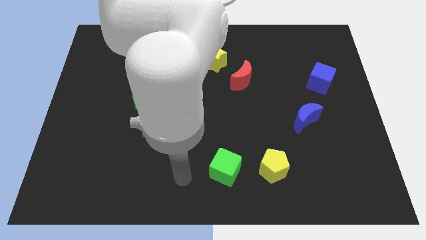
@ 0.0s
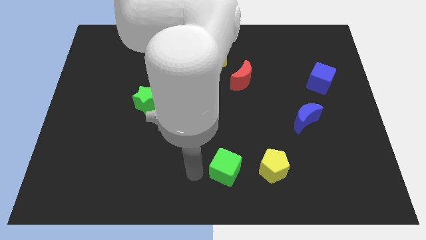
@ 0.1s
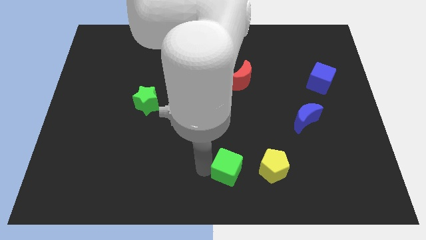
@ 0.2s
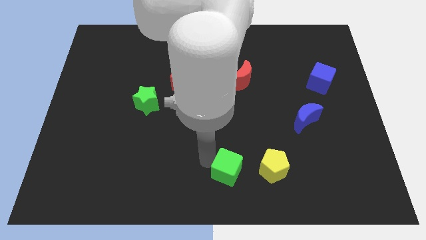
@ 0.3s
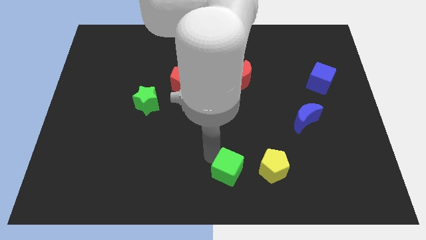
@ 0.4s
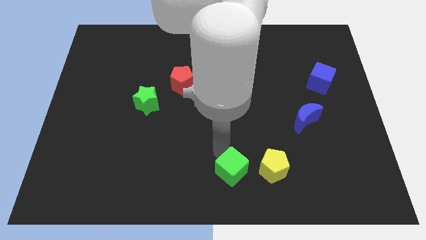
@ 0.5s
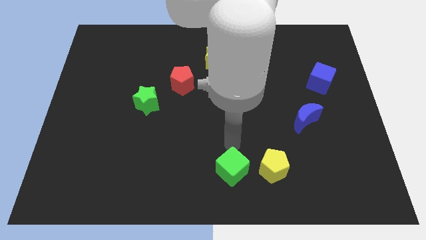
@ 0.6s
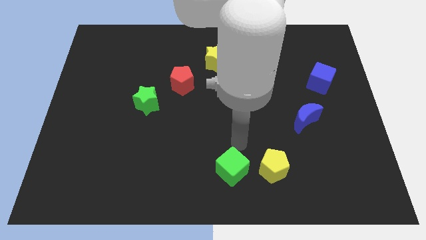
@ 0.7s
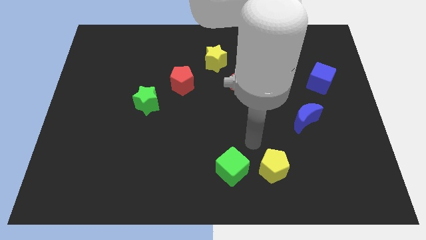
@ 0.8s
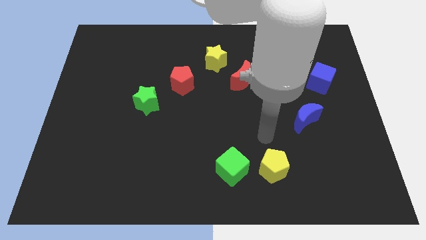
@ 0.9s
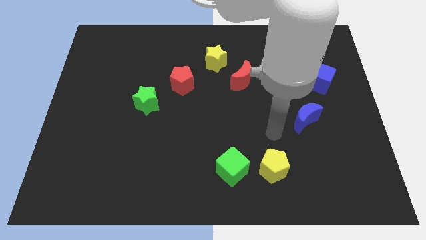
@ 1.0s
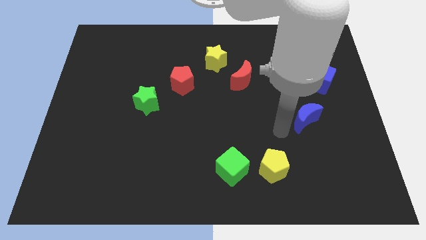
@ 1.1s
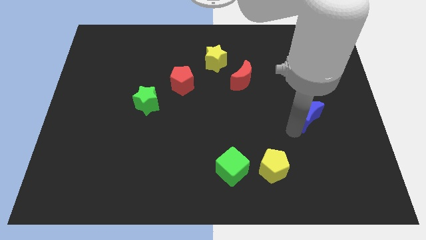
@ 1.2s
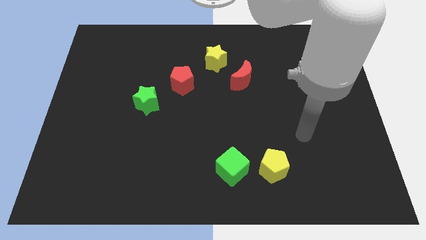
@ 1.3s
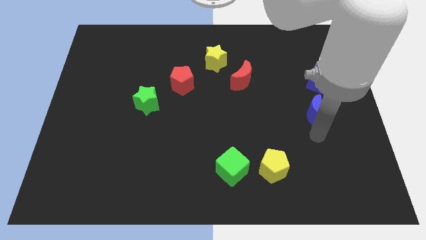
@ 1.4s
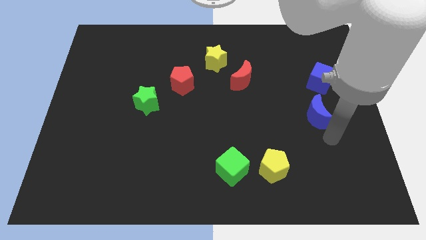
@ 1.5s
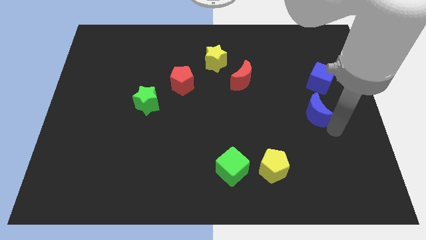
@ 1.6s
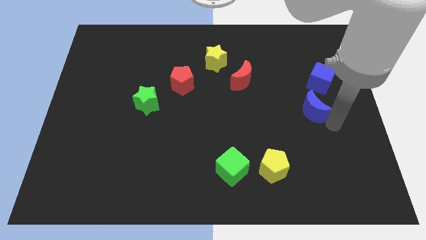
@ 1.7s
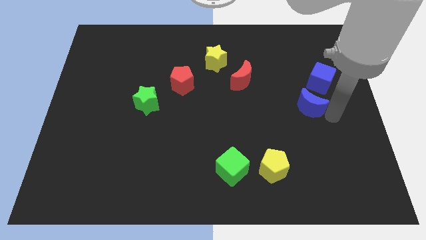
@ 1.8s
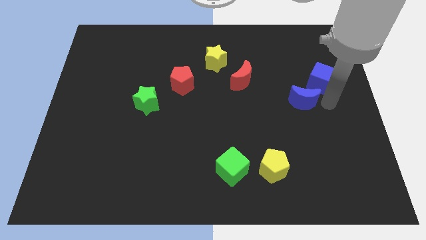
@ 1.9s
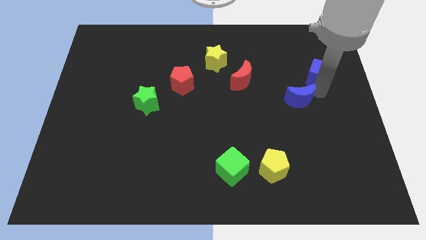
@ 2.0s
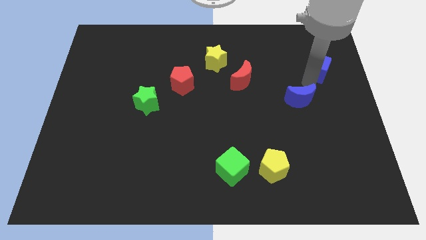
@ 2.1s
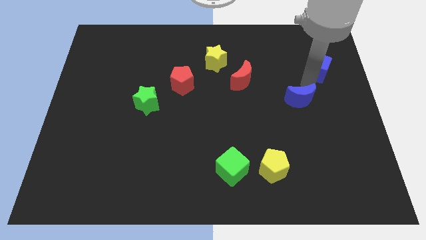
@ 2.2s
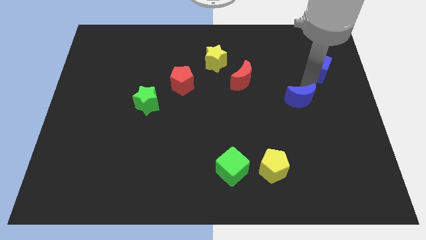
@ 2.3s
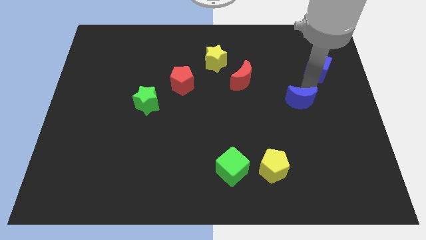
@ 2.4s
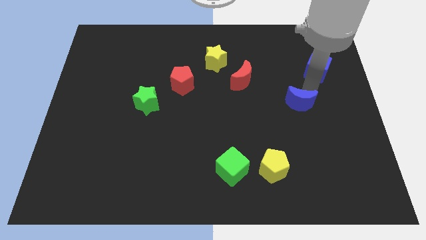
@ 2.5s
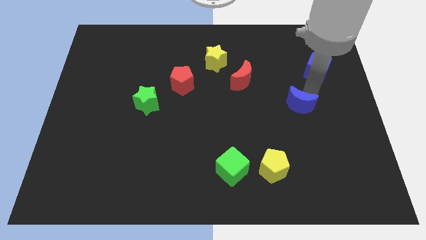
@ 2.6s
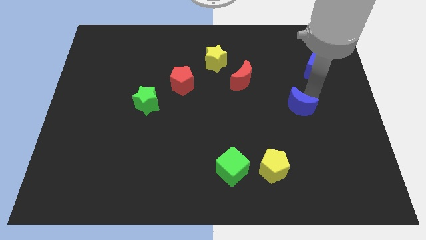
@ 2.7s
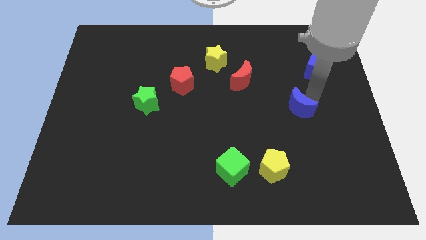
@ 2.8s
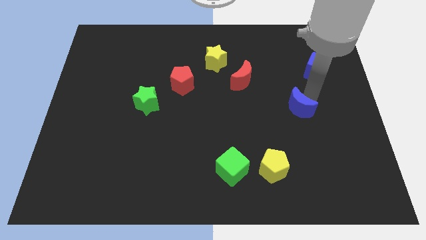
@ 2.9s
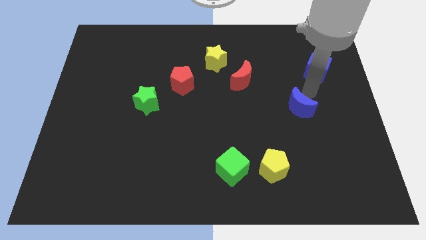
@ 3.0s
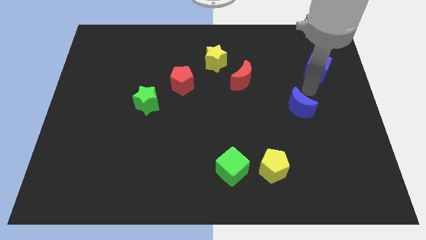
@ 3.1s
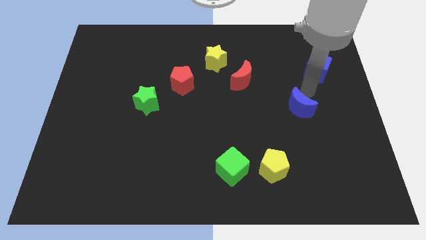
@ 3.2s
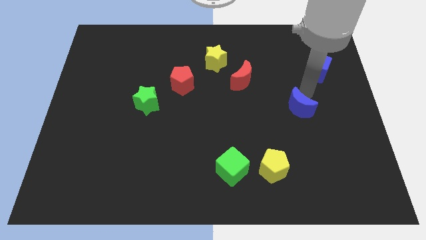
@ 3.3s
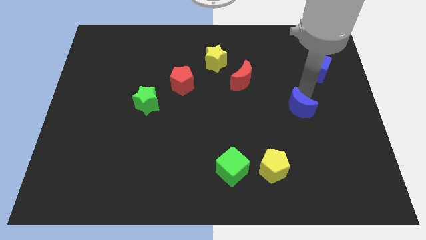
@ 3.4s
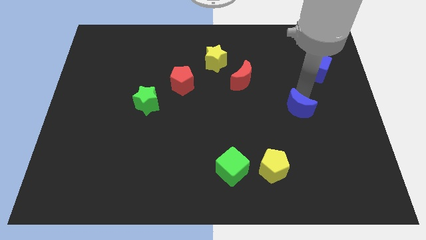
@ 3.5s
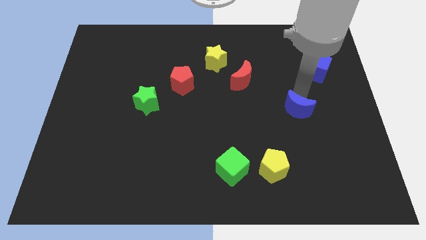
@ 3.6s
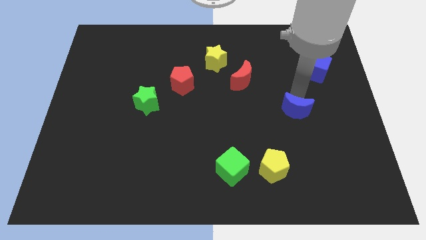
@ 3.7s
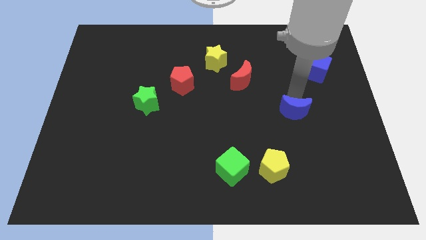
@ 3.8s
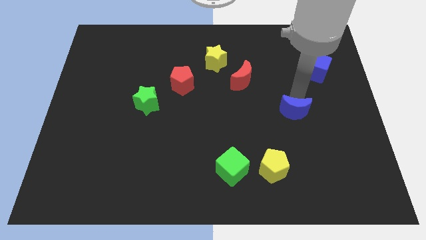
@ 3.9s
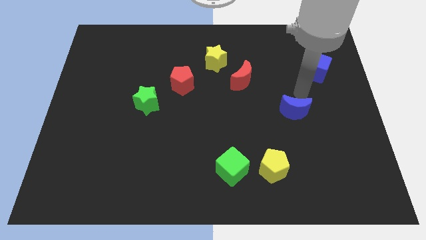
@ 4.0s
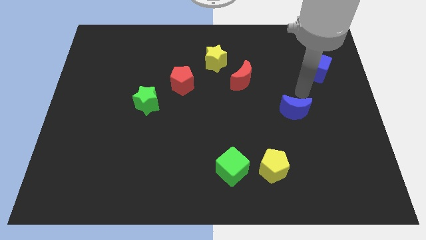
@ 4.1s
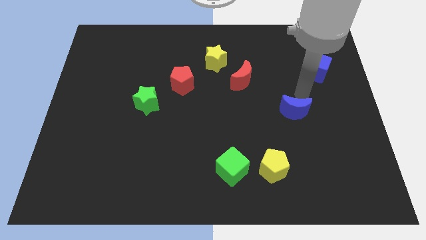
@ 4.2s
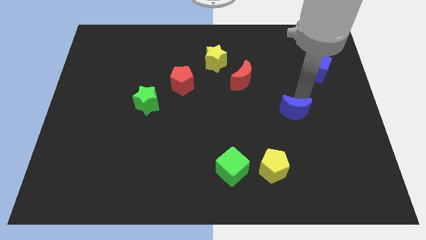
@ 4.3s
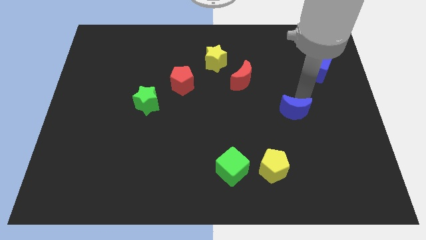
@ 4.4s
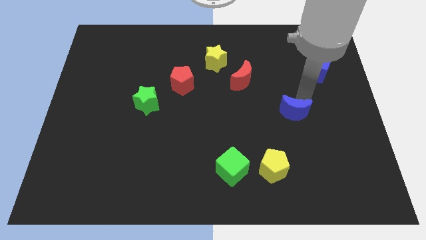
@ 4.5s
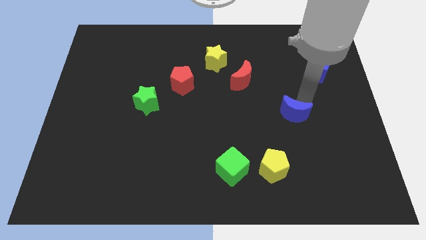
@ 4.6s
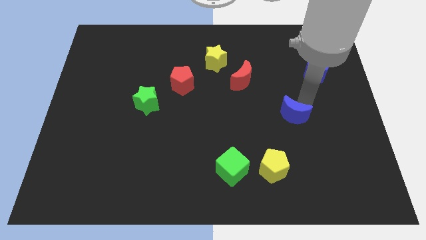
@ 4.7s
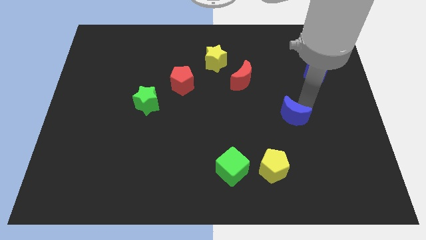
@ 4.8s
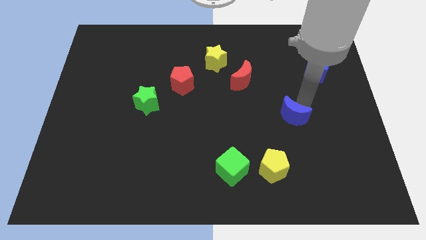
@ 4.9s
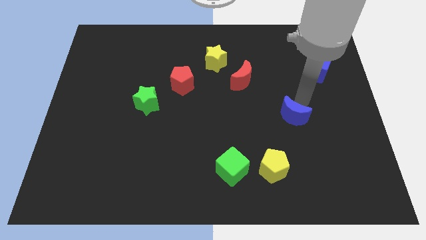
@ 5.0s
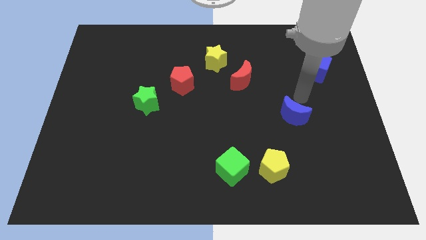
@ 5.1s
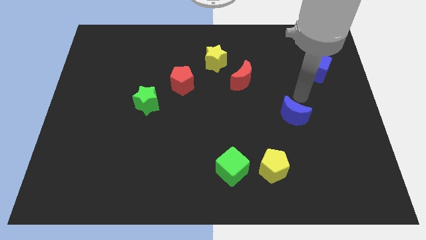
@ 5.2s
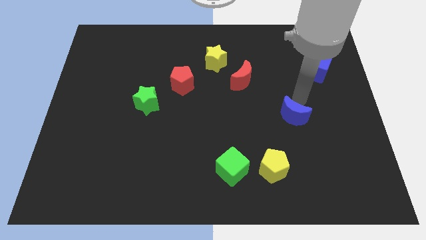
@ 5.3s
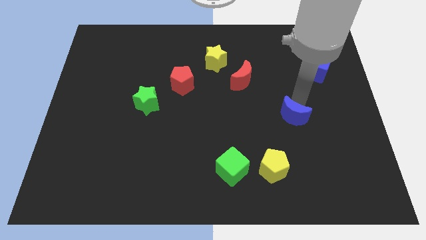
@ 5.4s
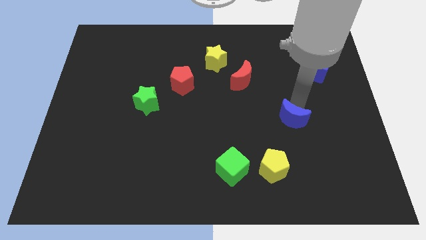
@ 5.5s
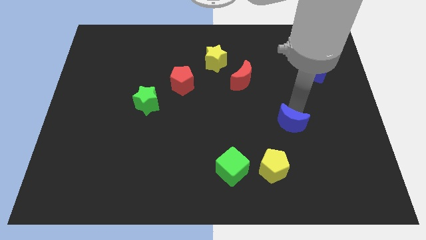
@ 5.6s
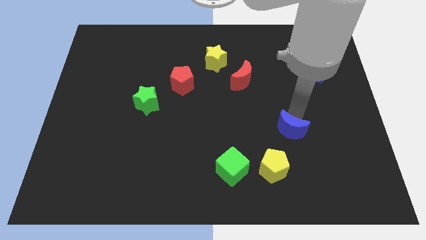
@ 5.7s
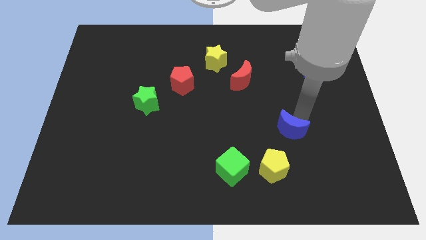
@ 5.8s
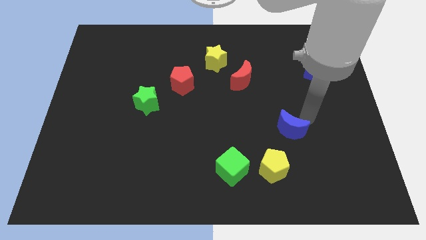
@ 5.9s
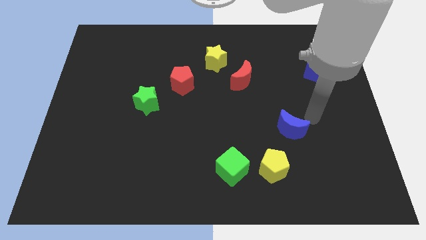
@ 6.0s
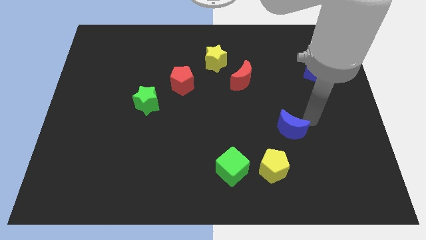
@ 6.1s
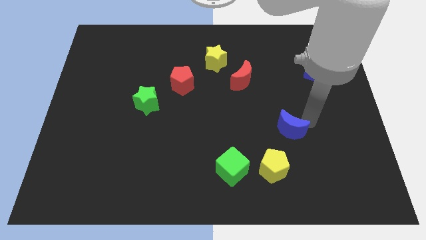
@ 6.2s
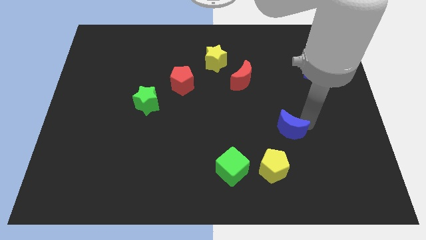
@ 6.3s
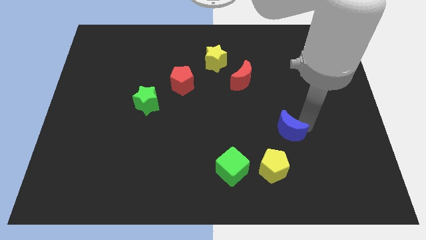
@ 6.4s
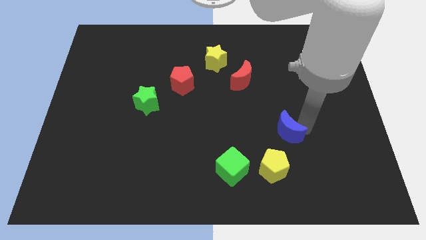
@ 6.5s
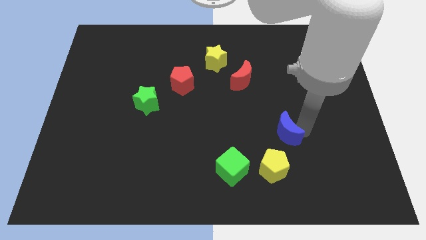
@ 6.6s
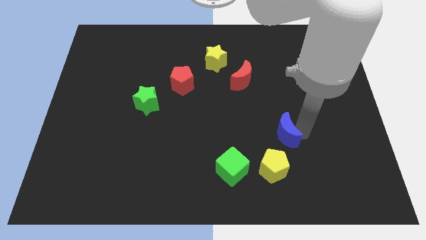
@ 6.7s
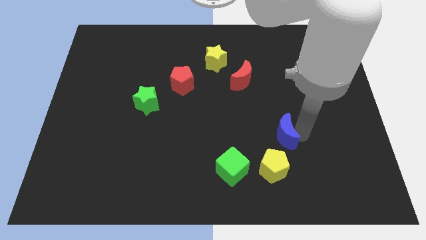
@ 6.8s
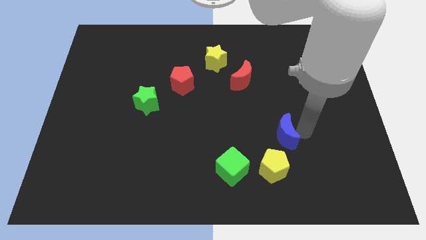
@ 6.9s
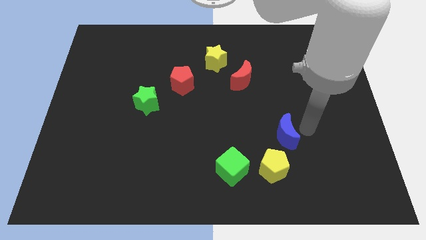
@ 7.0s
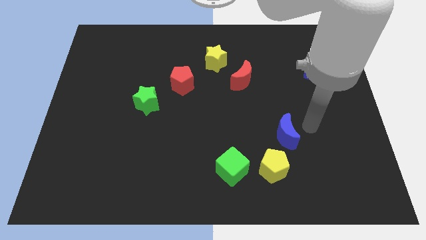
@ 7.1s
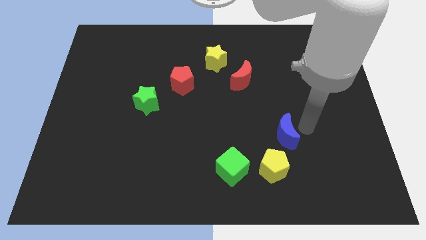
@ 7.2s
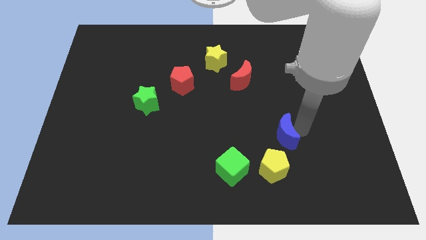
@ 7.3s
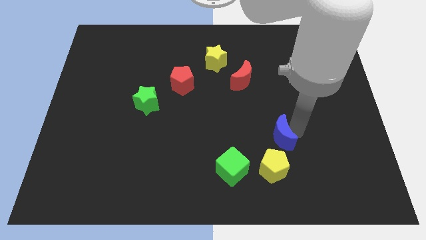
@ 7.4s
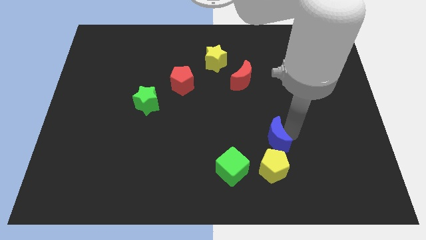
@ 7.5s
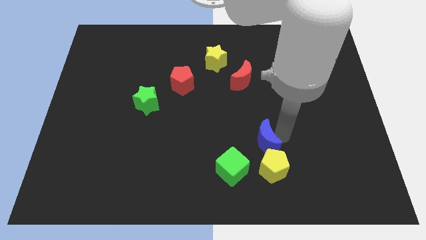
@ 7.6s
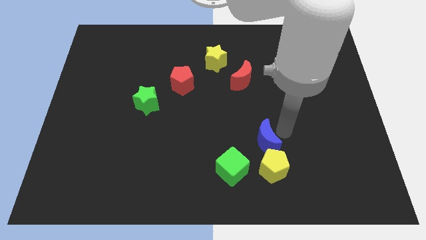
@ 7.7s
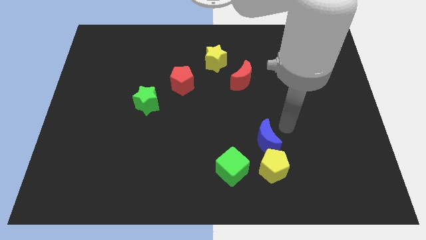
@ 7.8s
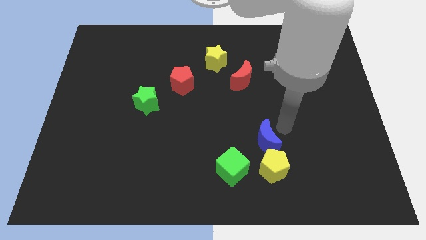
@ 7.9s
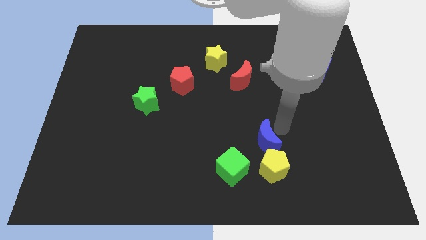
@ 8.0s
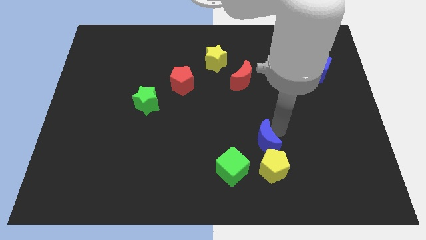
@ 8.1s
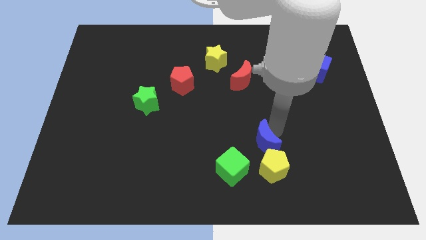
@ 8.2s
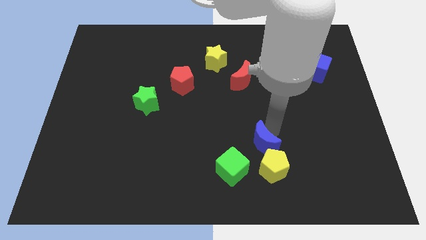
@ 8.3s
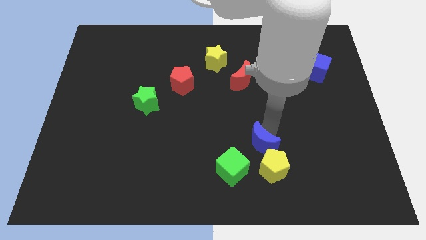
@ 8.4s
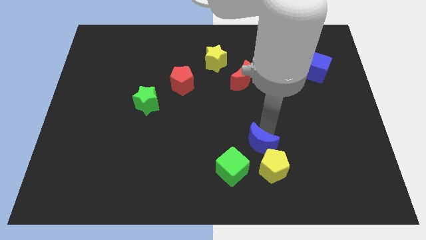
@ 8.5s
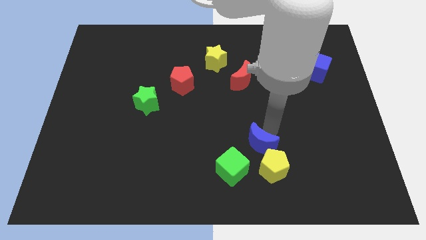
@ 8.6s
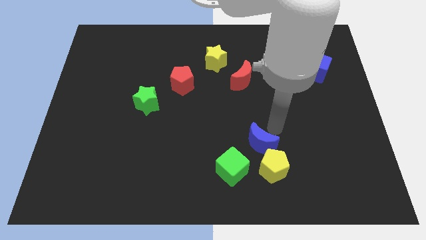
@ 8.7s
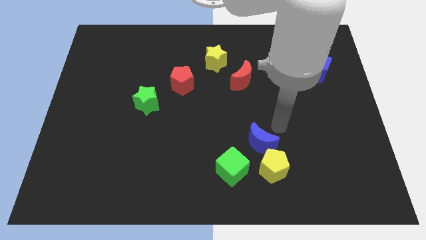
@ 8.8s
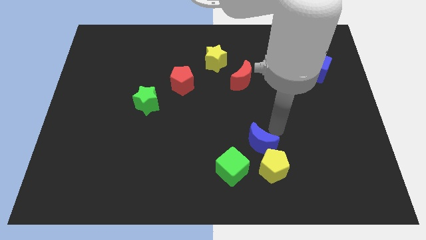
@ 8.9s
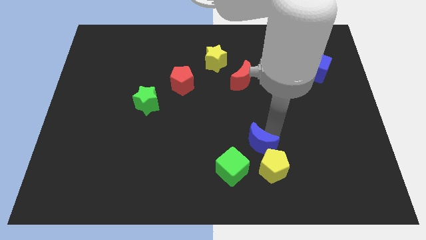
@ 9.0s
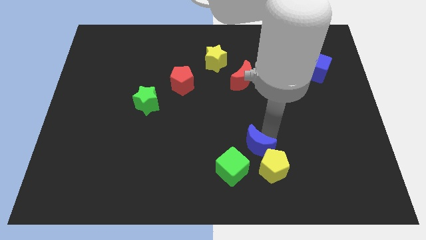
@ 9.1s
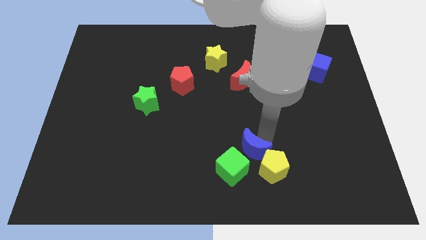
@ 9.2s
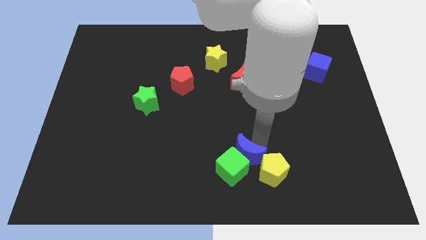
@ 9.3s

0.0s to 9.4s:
slide the blue moon next to the green cube
